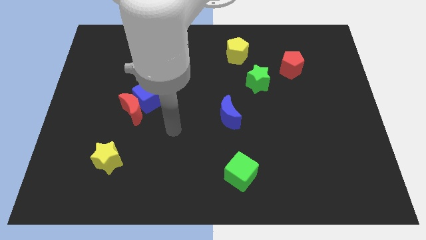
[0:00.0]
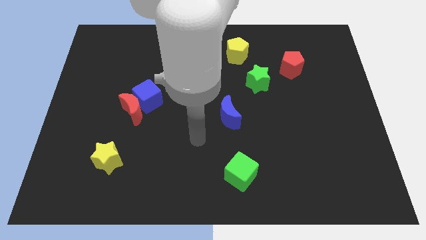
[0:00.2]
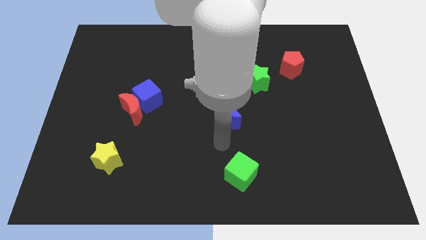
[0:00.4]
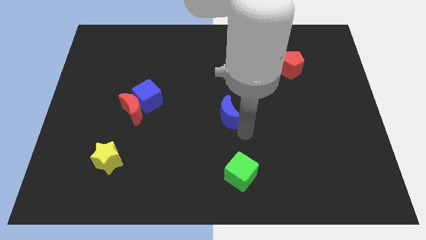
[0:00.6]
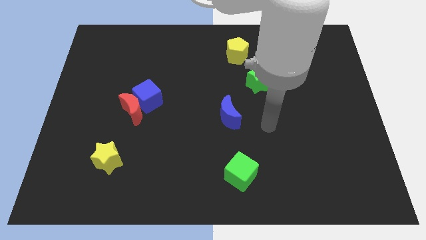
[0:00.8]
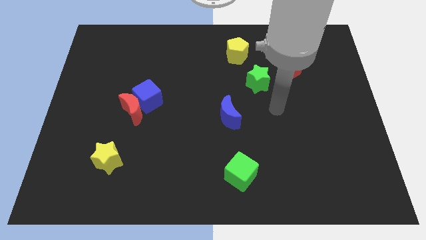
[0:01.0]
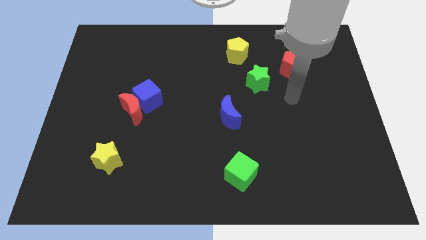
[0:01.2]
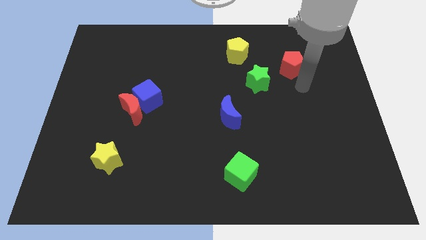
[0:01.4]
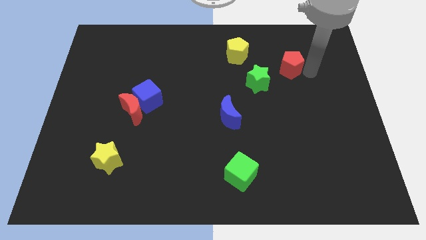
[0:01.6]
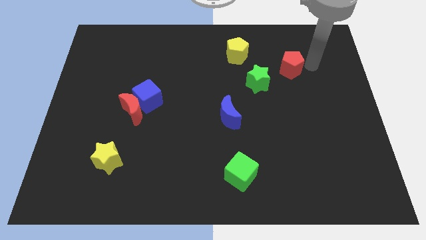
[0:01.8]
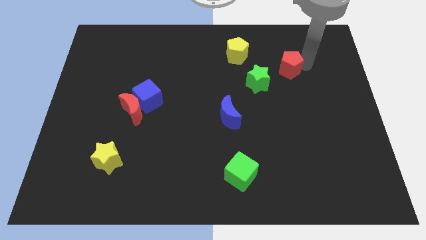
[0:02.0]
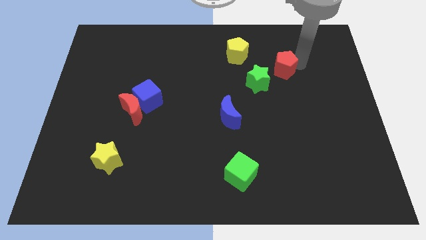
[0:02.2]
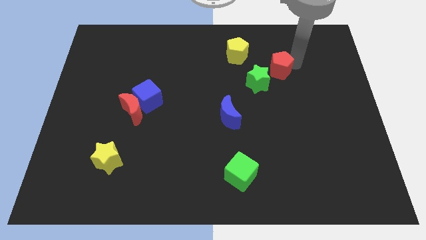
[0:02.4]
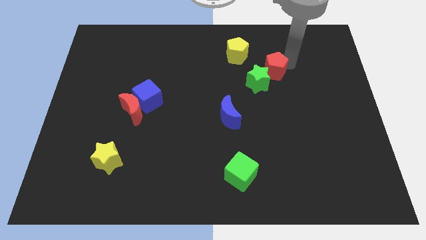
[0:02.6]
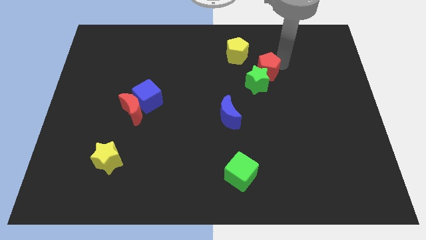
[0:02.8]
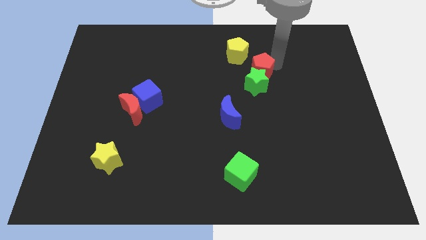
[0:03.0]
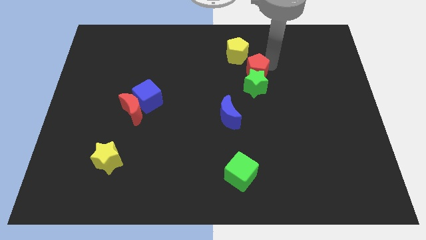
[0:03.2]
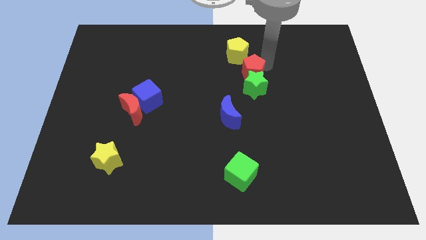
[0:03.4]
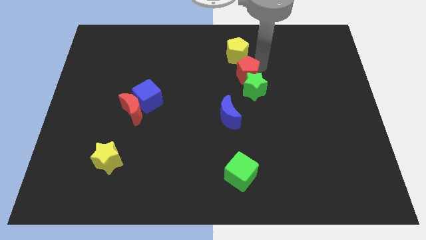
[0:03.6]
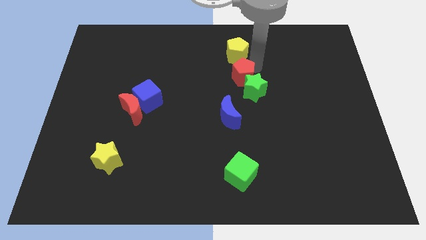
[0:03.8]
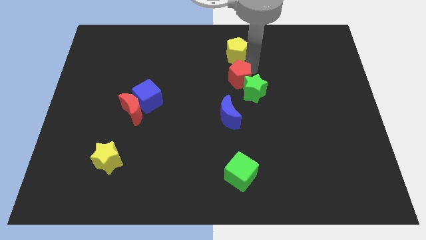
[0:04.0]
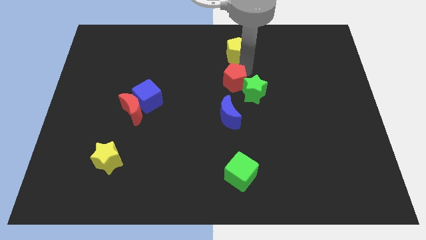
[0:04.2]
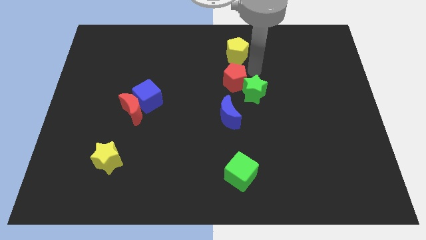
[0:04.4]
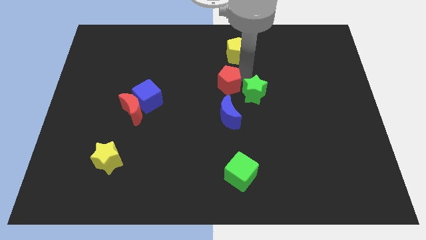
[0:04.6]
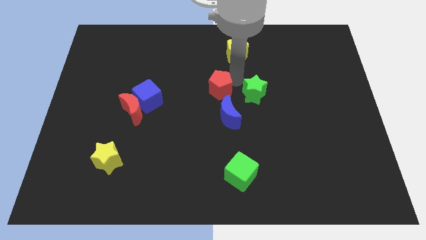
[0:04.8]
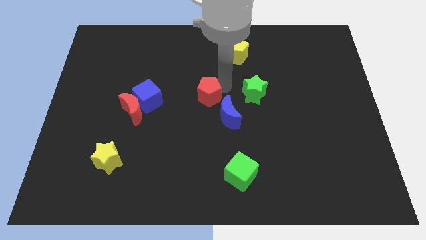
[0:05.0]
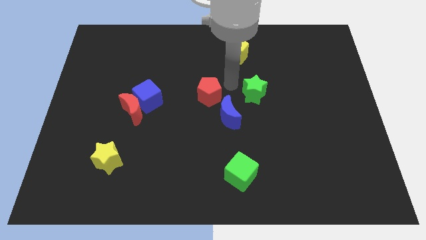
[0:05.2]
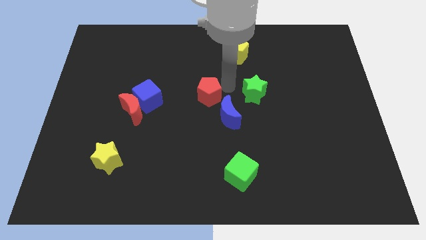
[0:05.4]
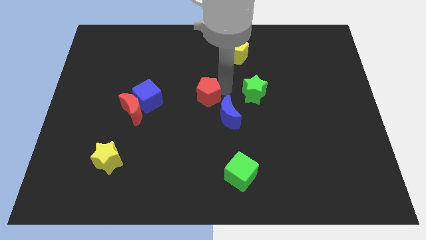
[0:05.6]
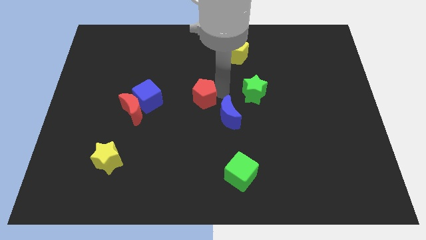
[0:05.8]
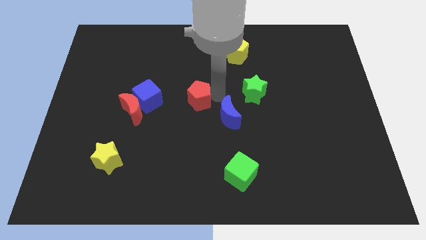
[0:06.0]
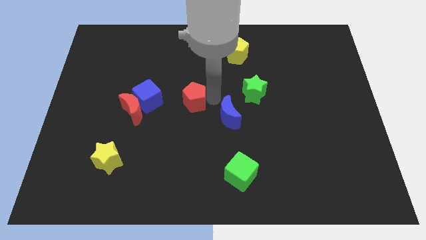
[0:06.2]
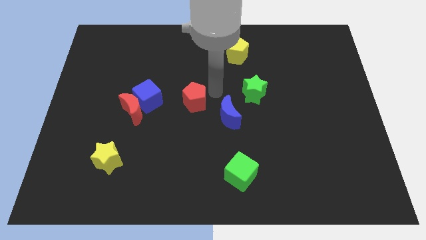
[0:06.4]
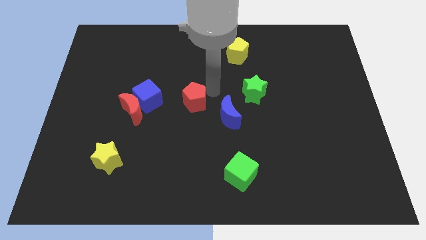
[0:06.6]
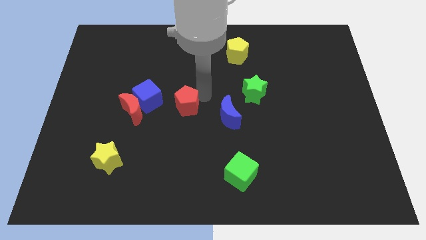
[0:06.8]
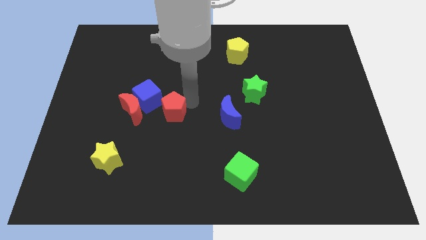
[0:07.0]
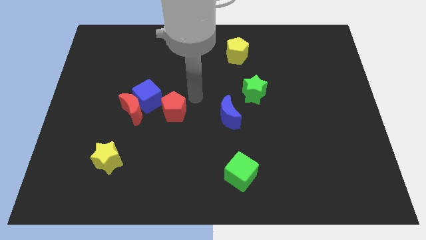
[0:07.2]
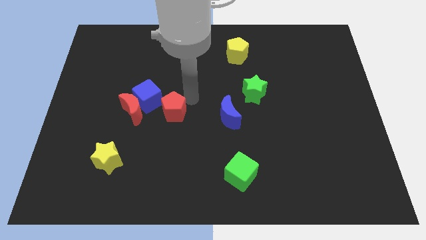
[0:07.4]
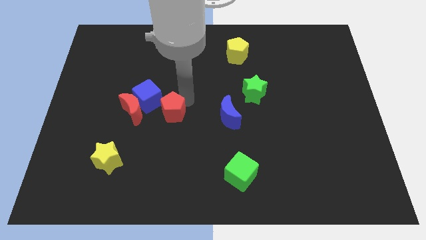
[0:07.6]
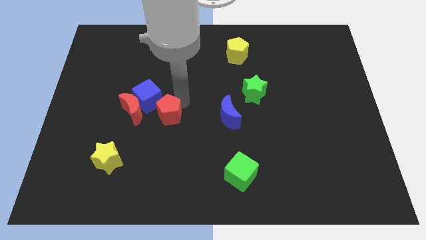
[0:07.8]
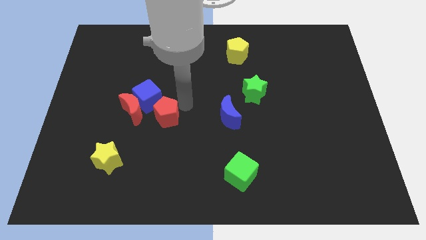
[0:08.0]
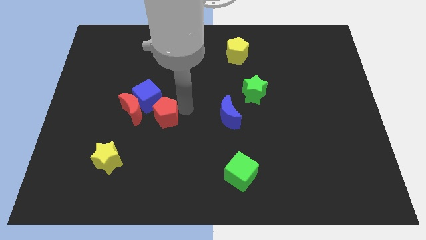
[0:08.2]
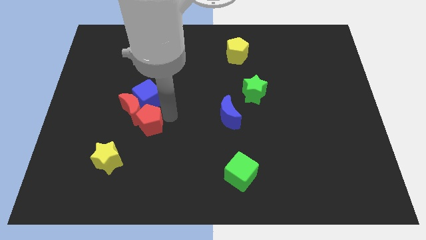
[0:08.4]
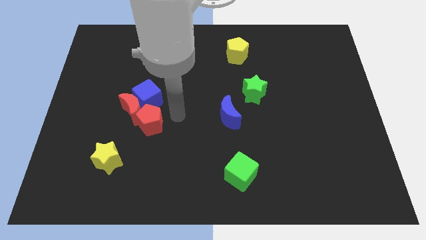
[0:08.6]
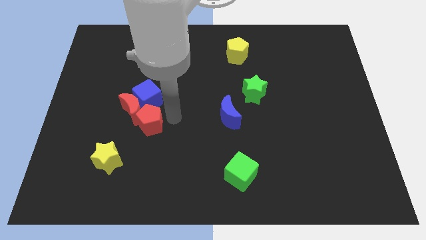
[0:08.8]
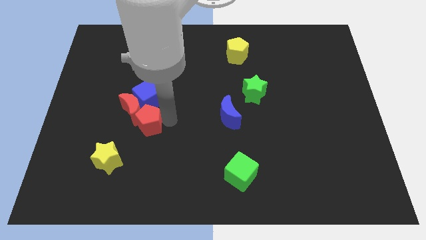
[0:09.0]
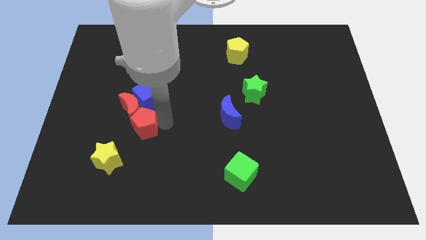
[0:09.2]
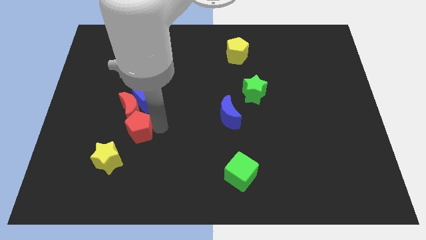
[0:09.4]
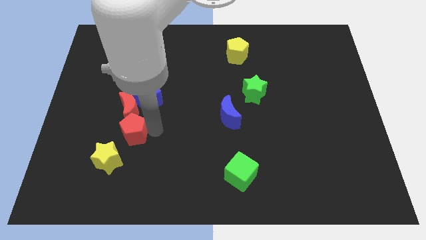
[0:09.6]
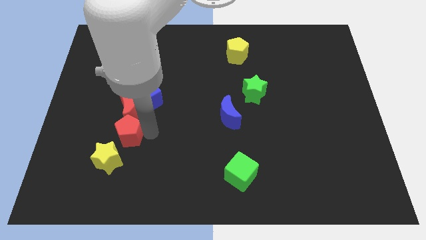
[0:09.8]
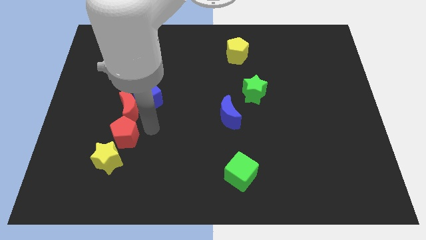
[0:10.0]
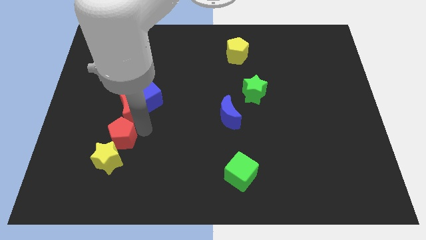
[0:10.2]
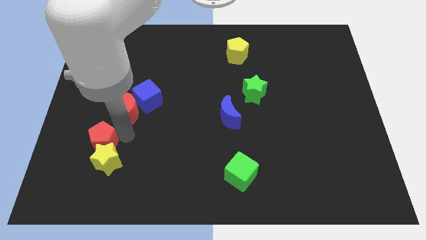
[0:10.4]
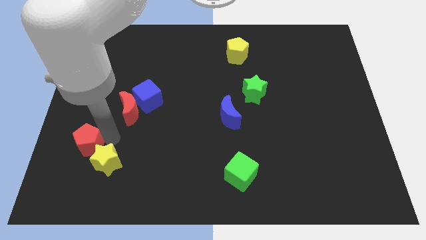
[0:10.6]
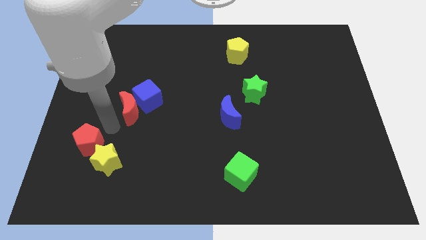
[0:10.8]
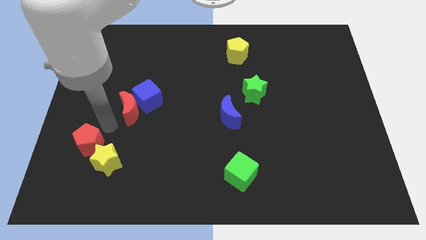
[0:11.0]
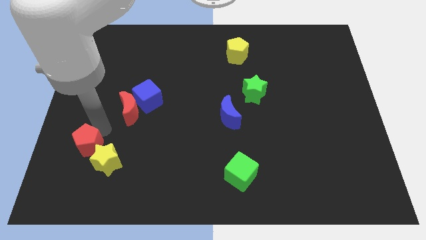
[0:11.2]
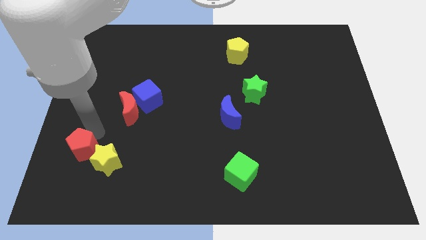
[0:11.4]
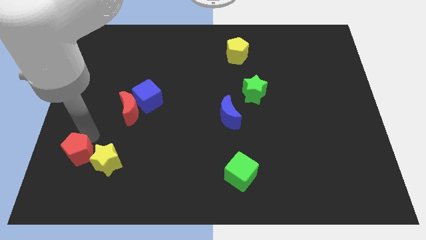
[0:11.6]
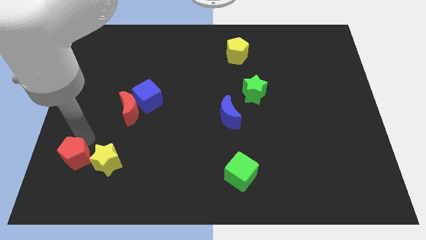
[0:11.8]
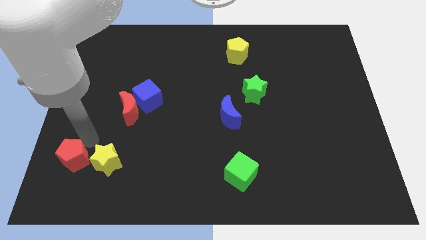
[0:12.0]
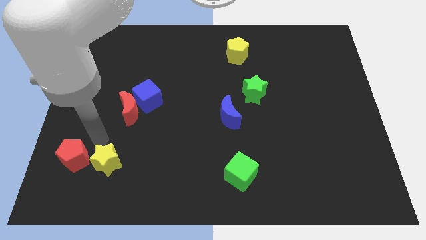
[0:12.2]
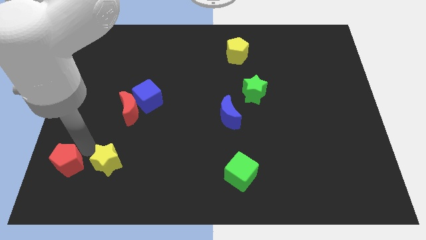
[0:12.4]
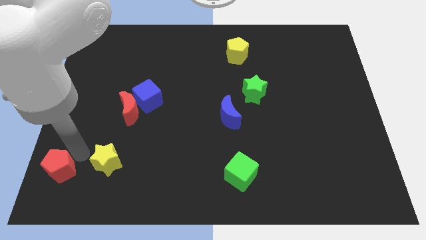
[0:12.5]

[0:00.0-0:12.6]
put the red pentagon to the bottom left of the board

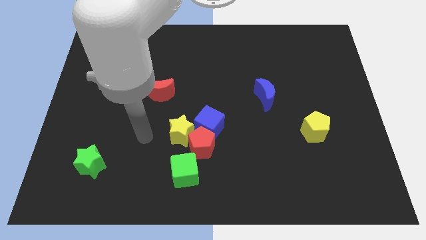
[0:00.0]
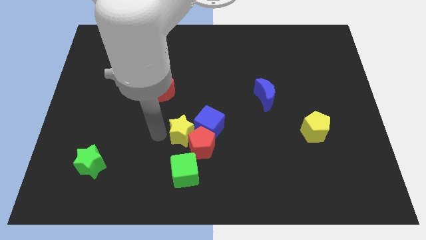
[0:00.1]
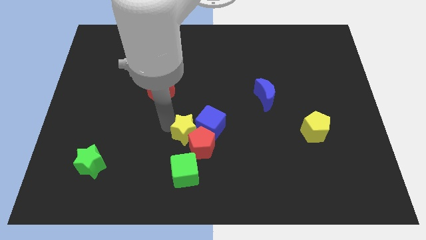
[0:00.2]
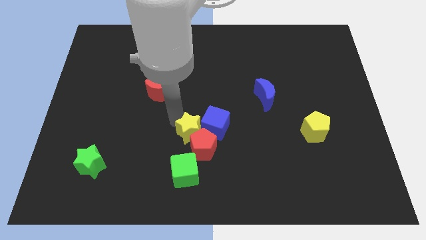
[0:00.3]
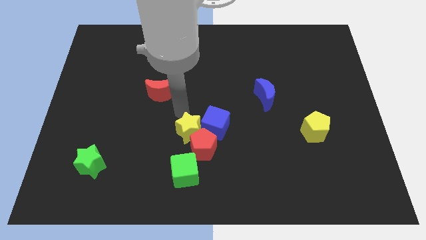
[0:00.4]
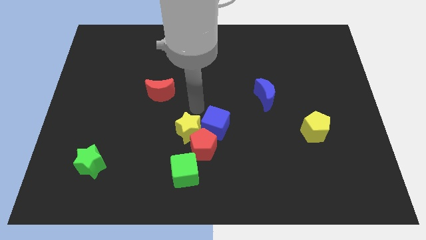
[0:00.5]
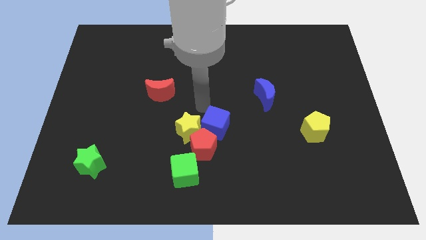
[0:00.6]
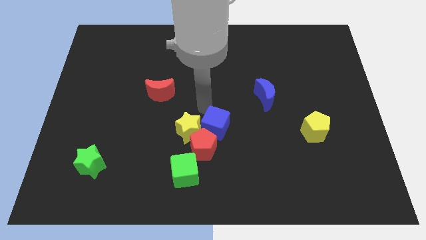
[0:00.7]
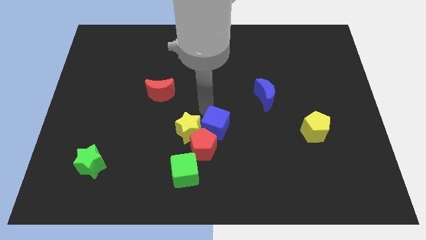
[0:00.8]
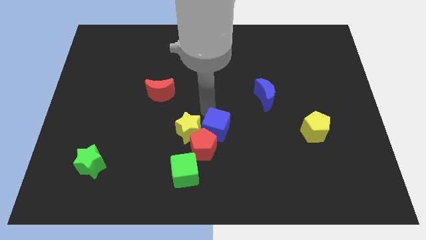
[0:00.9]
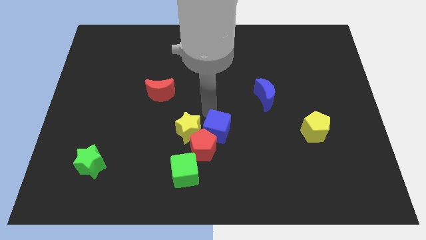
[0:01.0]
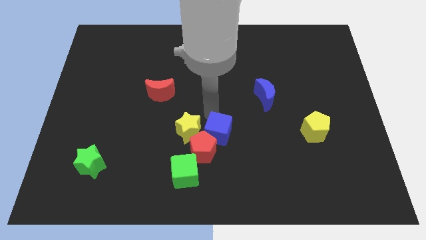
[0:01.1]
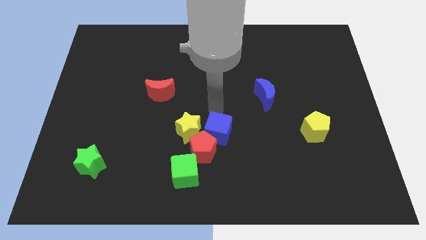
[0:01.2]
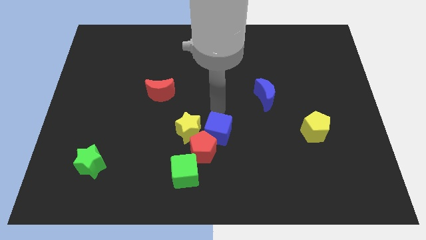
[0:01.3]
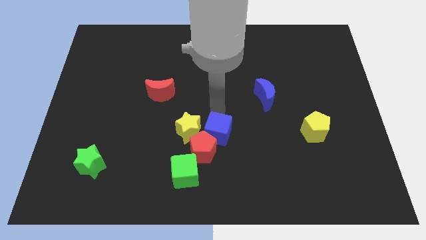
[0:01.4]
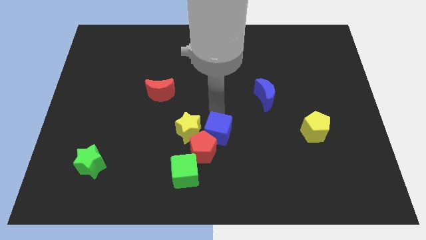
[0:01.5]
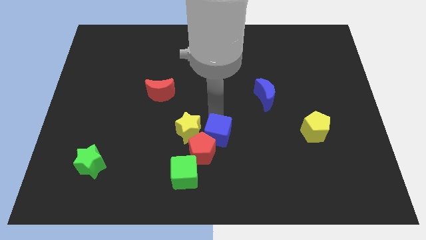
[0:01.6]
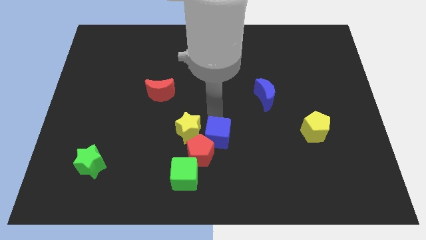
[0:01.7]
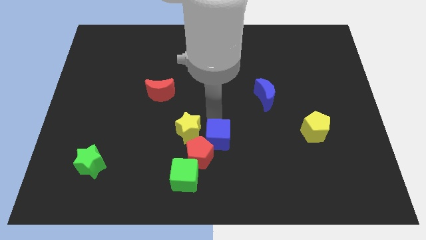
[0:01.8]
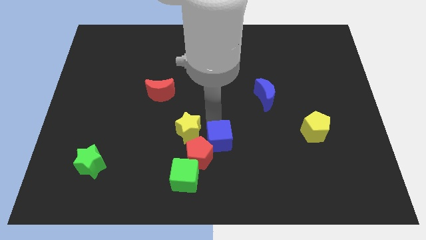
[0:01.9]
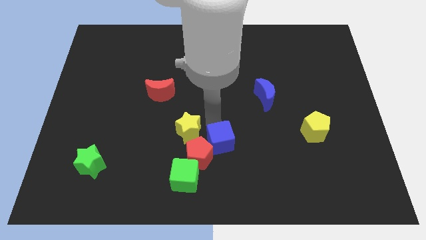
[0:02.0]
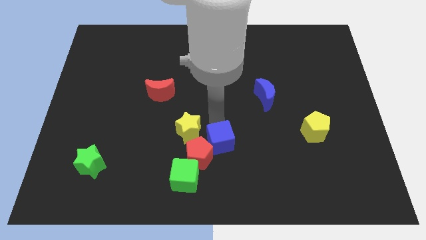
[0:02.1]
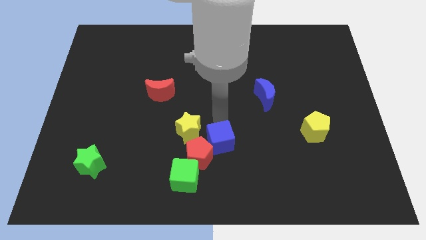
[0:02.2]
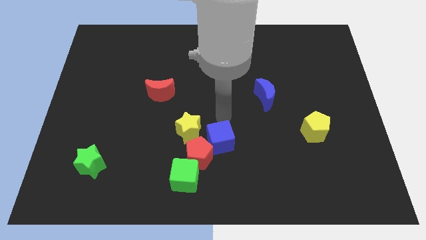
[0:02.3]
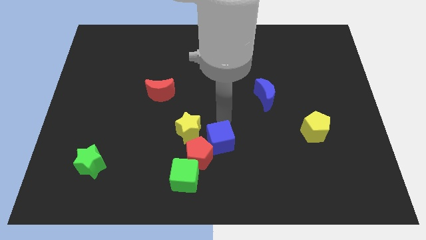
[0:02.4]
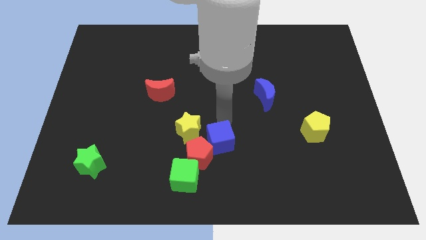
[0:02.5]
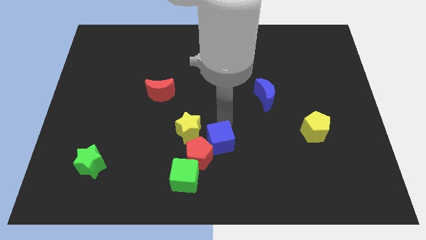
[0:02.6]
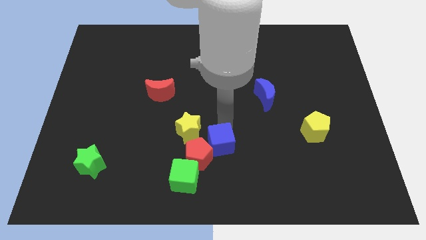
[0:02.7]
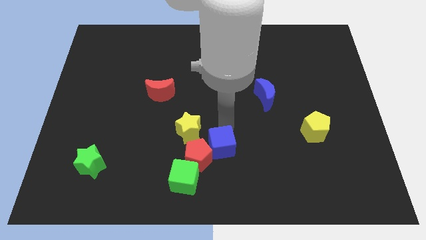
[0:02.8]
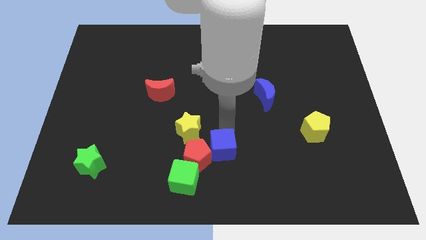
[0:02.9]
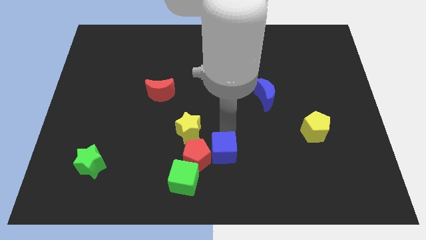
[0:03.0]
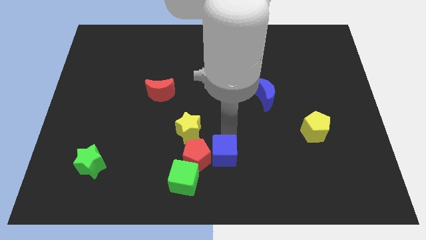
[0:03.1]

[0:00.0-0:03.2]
move the blue cube to the bottom
